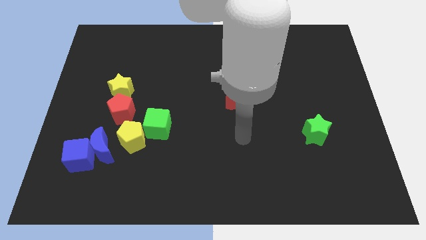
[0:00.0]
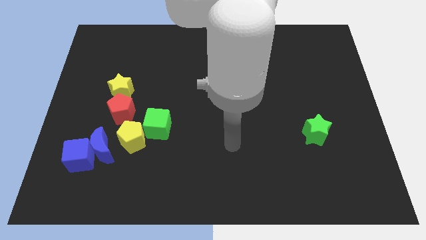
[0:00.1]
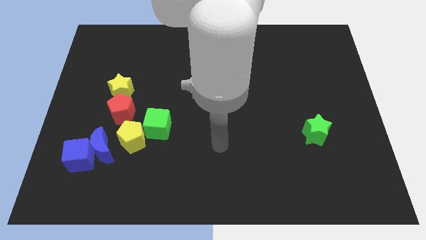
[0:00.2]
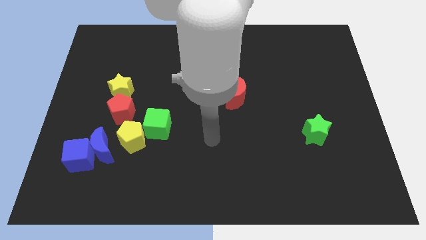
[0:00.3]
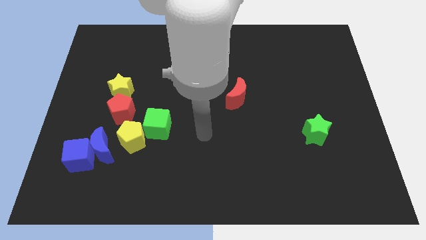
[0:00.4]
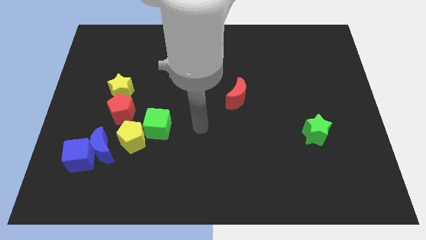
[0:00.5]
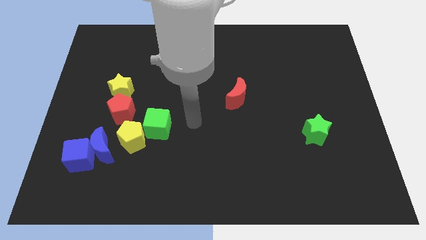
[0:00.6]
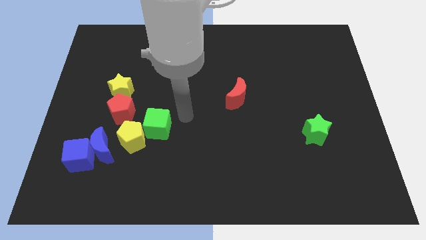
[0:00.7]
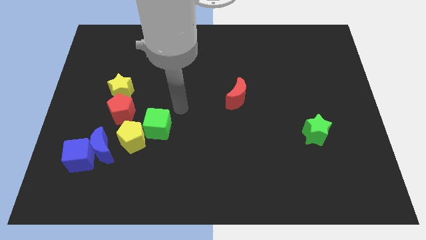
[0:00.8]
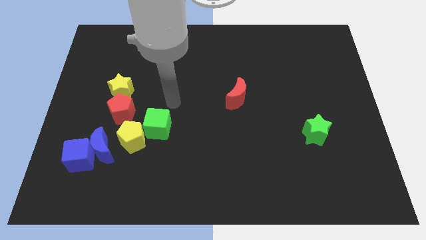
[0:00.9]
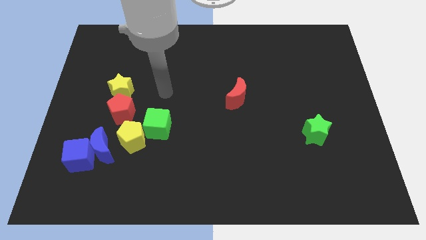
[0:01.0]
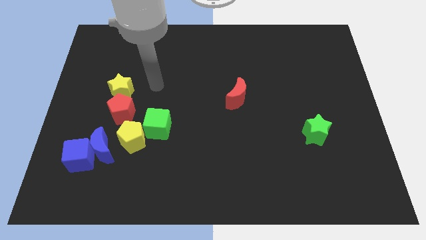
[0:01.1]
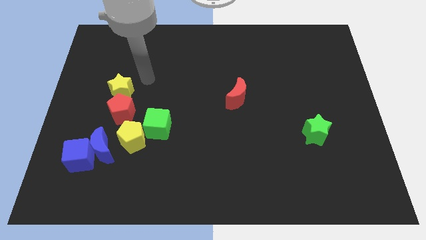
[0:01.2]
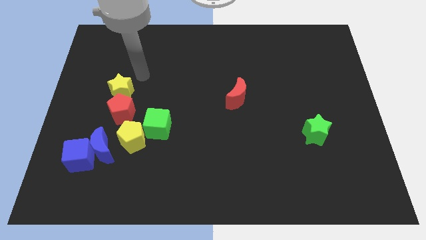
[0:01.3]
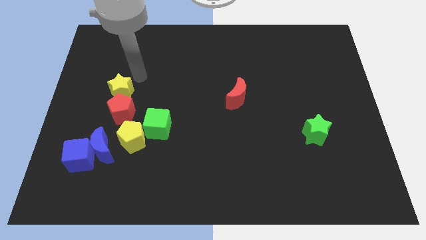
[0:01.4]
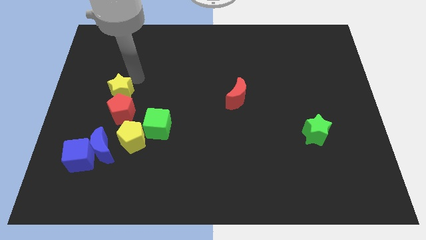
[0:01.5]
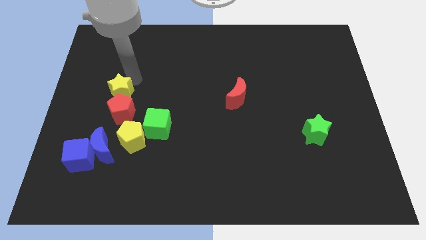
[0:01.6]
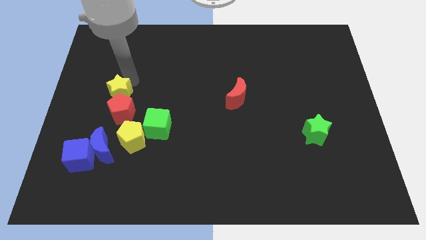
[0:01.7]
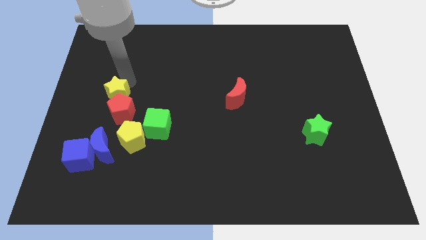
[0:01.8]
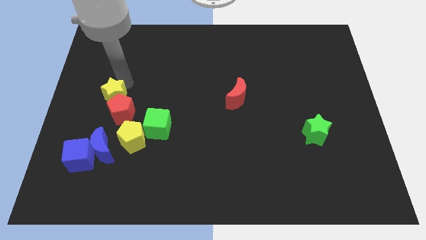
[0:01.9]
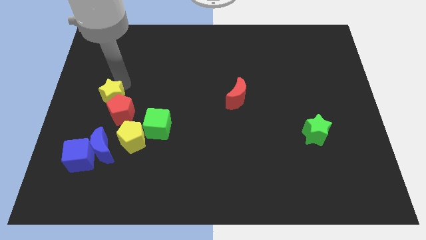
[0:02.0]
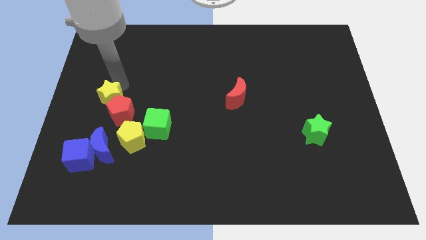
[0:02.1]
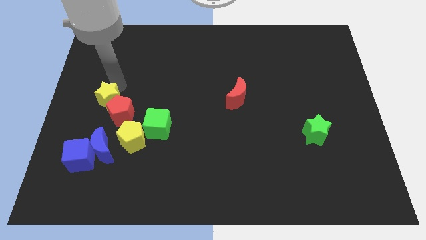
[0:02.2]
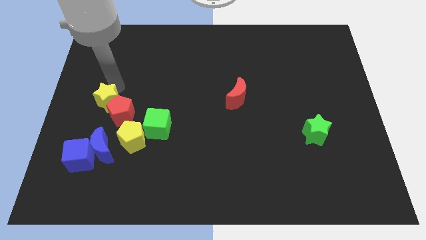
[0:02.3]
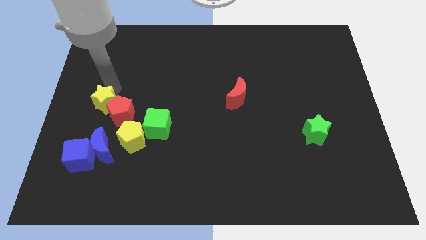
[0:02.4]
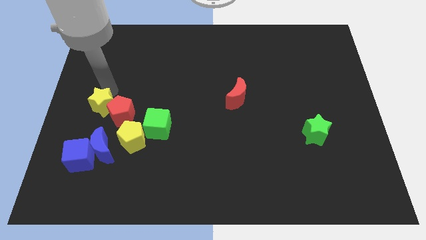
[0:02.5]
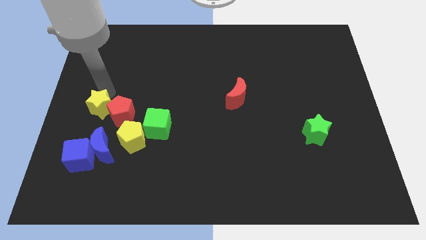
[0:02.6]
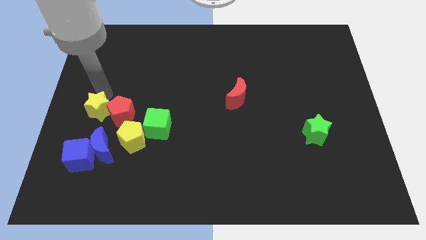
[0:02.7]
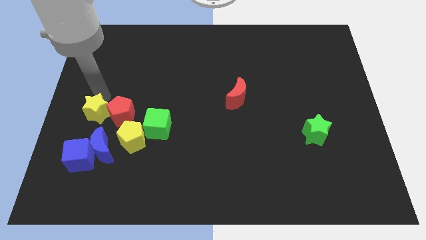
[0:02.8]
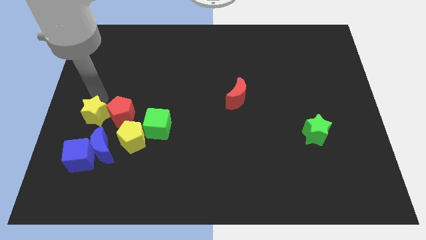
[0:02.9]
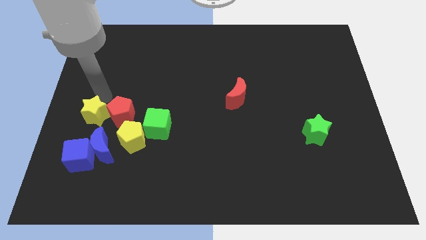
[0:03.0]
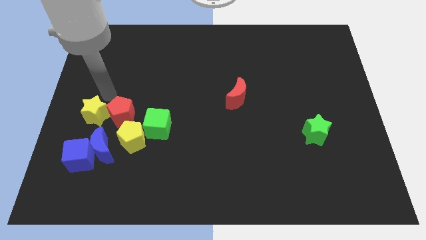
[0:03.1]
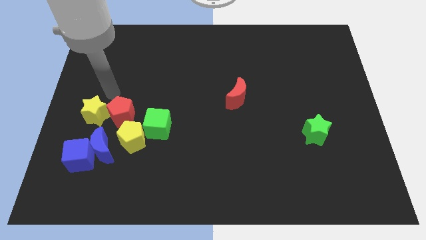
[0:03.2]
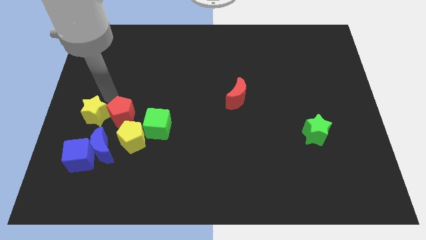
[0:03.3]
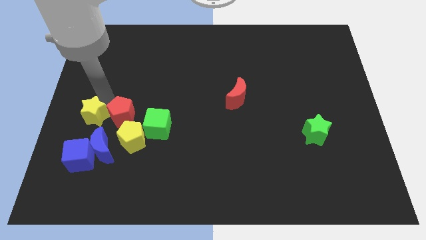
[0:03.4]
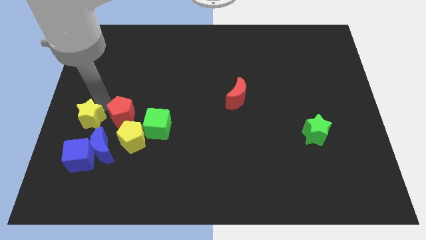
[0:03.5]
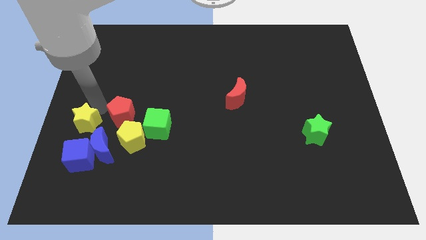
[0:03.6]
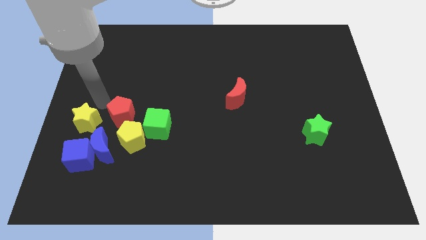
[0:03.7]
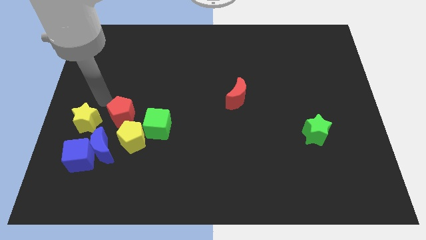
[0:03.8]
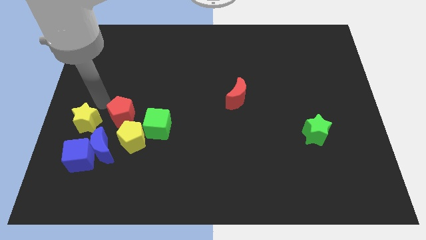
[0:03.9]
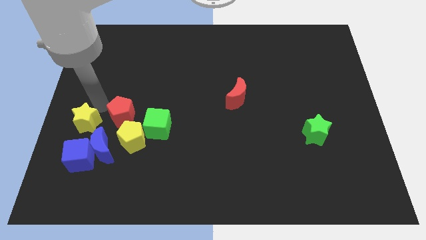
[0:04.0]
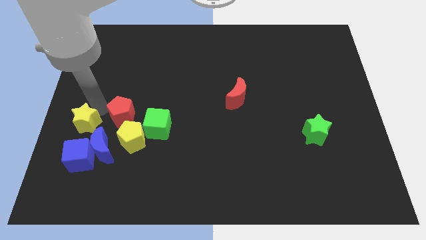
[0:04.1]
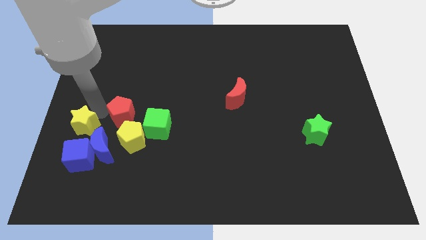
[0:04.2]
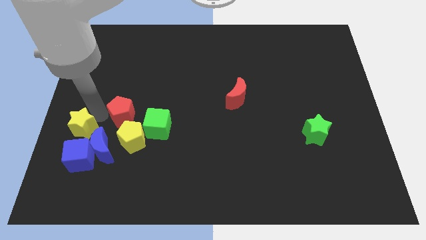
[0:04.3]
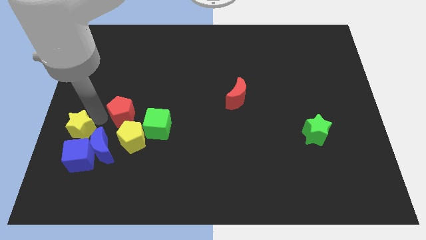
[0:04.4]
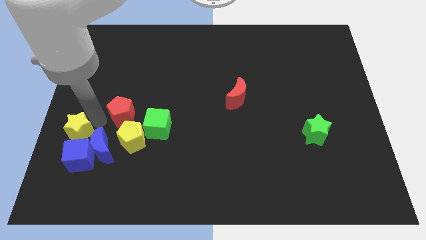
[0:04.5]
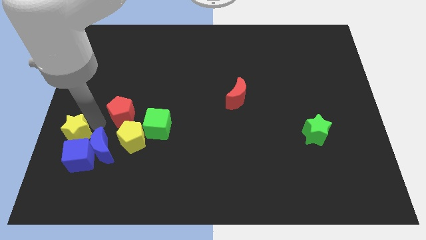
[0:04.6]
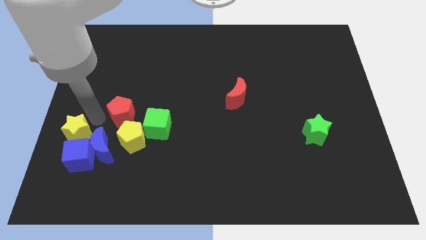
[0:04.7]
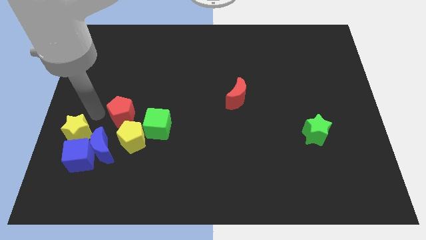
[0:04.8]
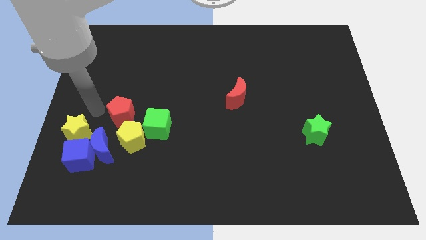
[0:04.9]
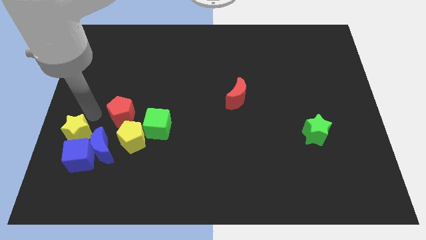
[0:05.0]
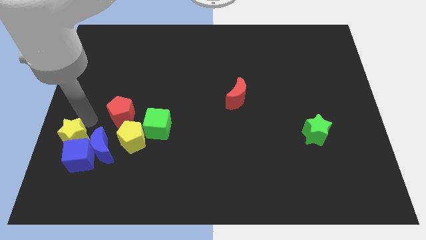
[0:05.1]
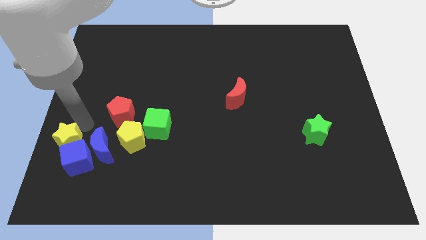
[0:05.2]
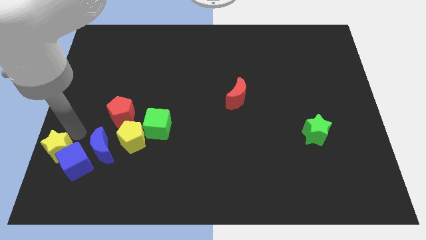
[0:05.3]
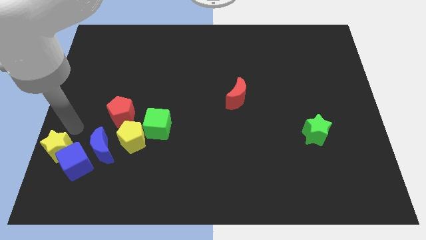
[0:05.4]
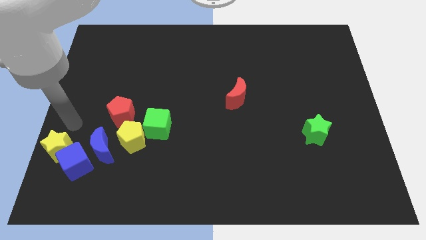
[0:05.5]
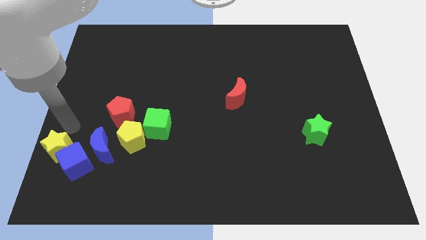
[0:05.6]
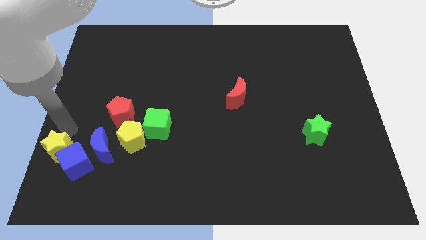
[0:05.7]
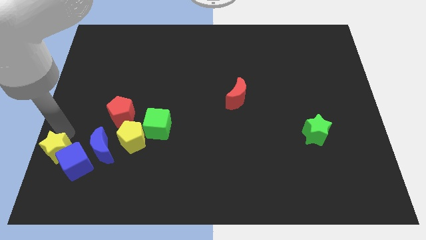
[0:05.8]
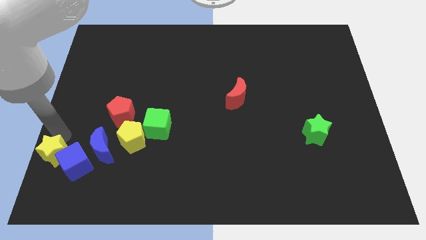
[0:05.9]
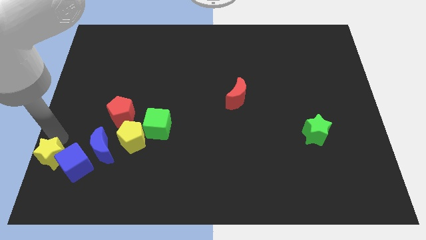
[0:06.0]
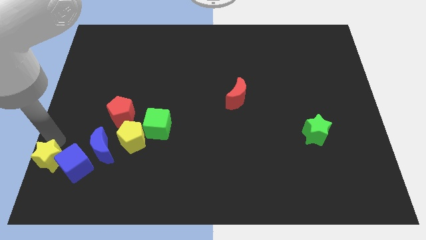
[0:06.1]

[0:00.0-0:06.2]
push the yellow star to the bottom left
